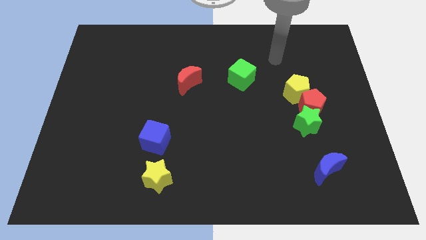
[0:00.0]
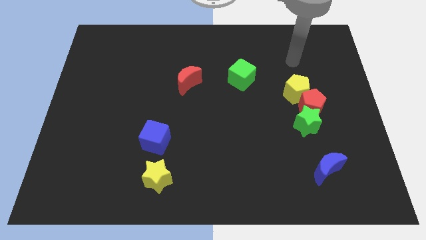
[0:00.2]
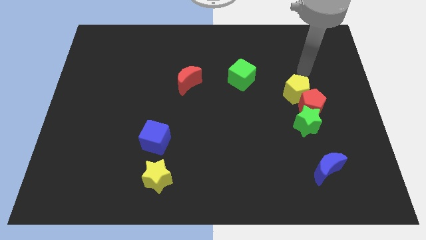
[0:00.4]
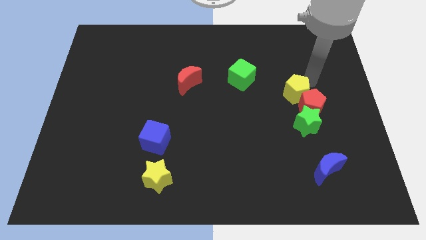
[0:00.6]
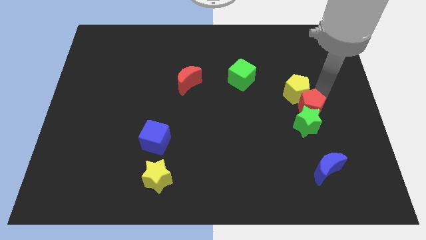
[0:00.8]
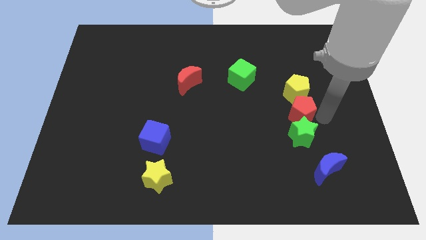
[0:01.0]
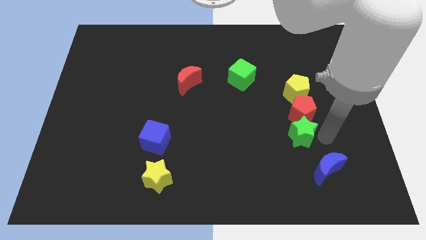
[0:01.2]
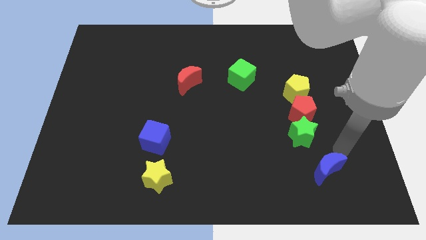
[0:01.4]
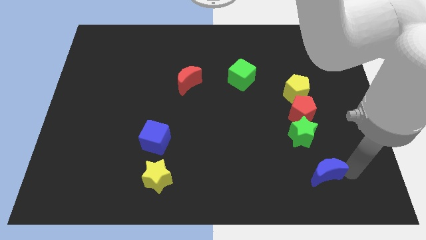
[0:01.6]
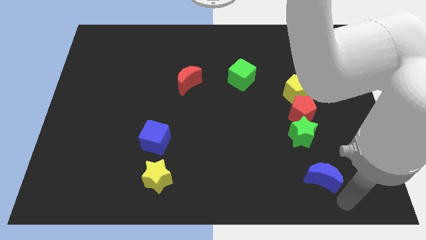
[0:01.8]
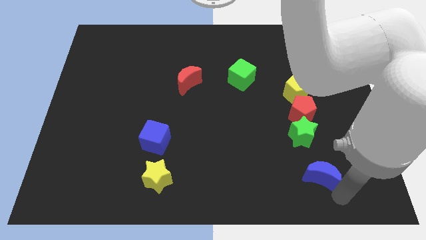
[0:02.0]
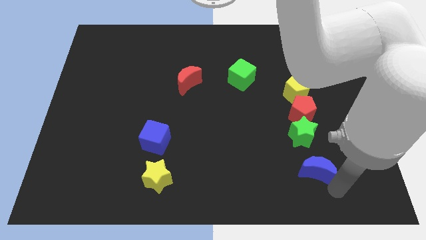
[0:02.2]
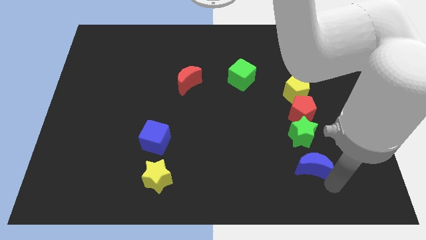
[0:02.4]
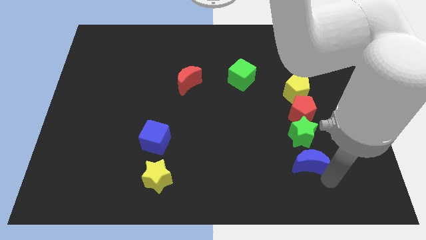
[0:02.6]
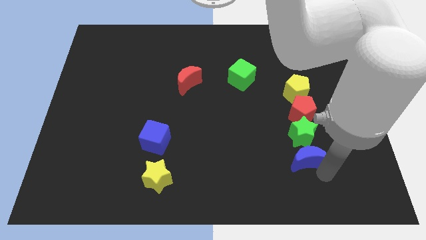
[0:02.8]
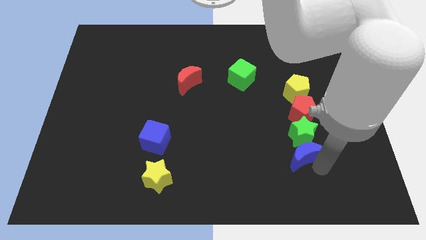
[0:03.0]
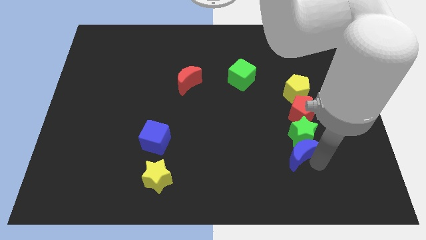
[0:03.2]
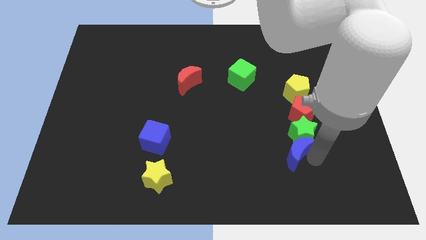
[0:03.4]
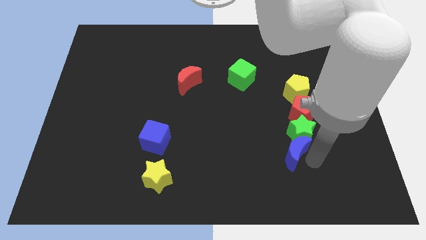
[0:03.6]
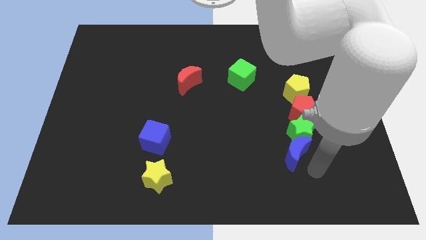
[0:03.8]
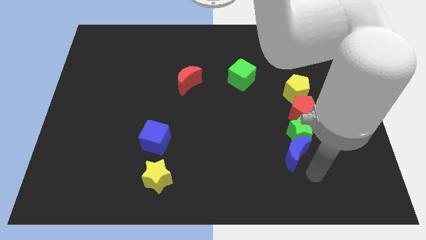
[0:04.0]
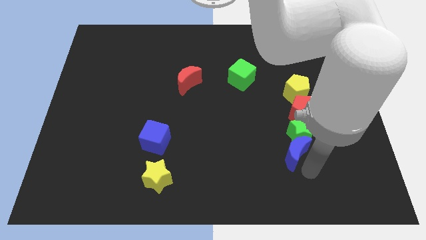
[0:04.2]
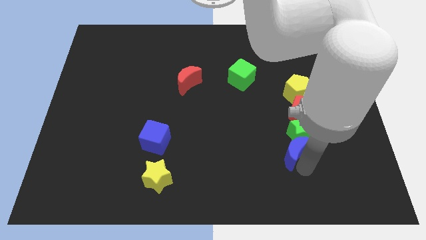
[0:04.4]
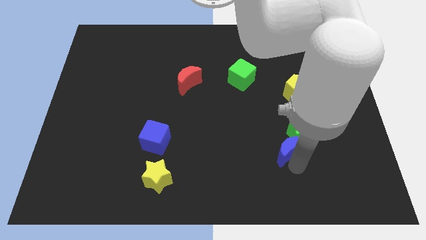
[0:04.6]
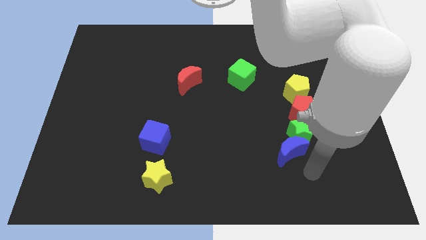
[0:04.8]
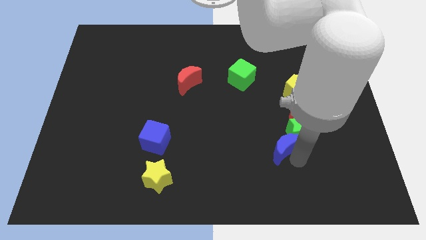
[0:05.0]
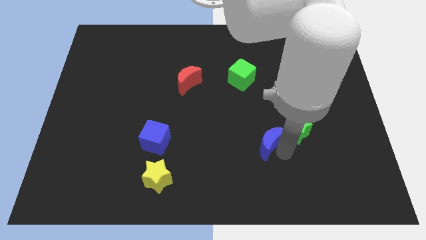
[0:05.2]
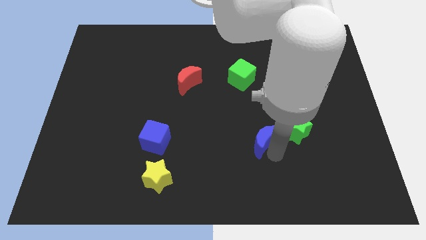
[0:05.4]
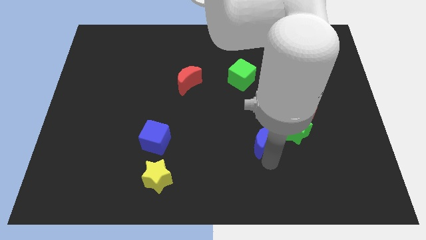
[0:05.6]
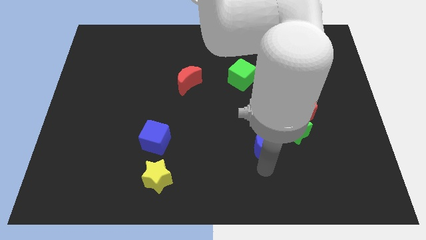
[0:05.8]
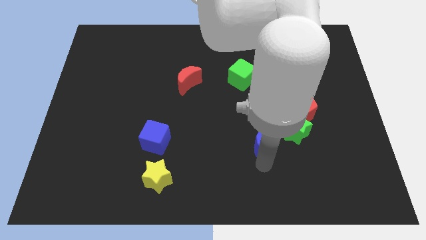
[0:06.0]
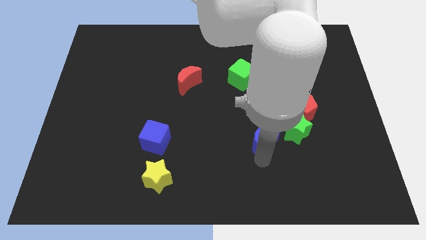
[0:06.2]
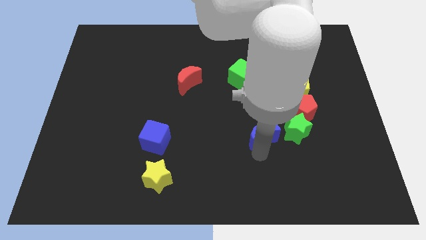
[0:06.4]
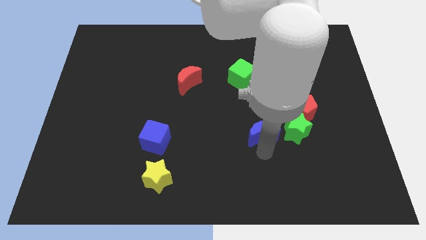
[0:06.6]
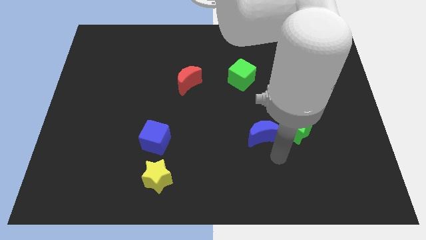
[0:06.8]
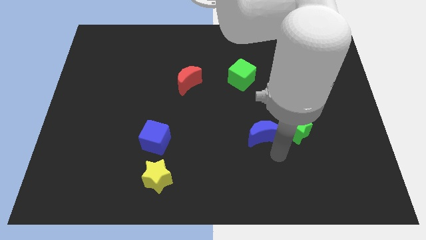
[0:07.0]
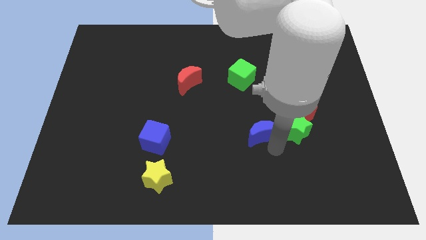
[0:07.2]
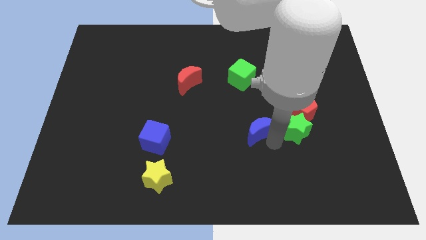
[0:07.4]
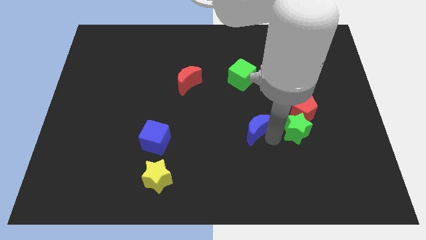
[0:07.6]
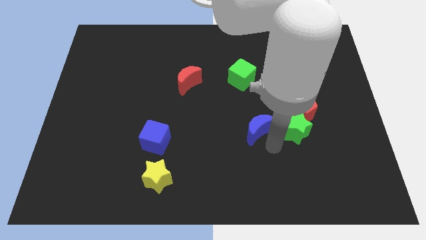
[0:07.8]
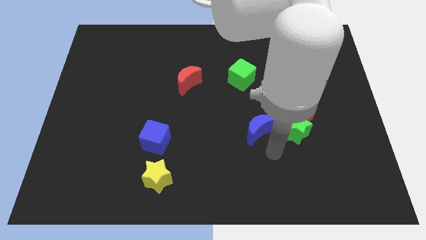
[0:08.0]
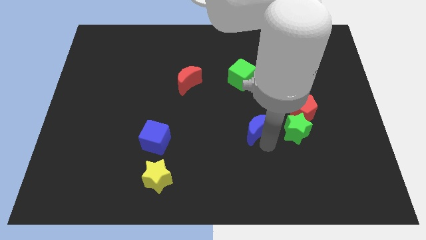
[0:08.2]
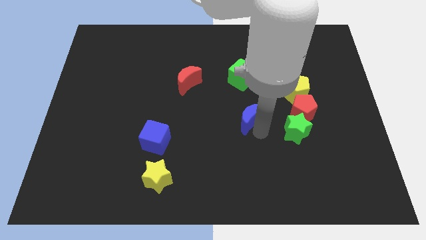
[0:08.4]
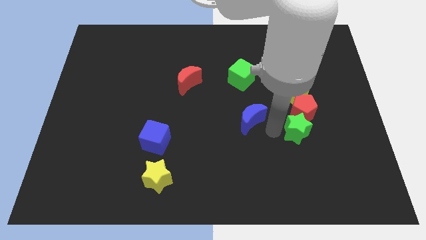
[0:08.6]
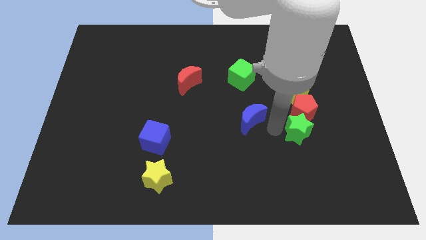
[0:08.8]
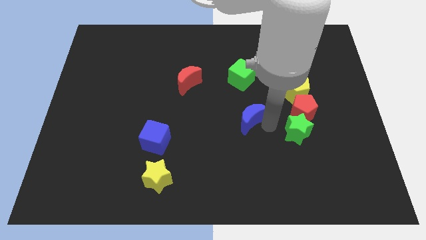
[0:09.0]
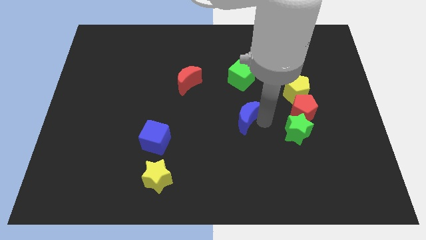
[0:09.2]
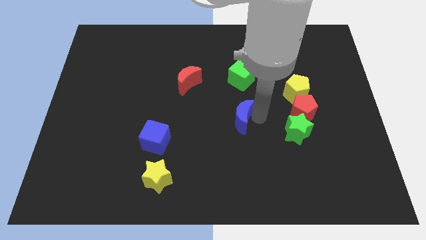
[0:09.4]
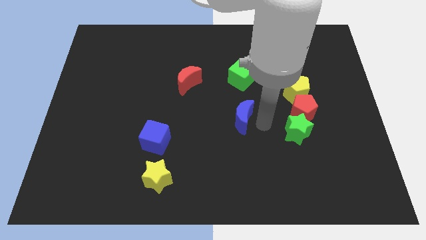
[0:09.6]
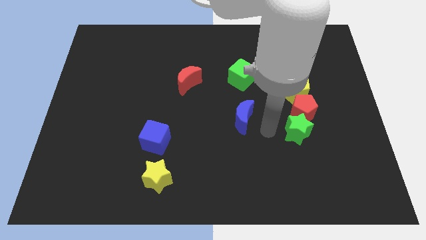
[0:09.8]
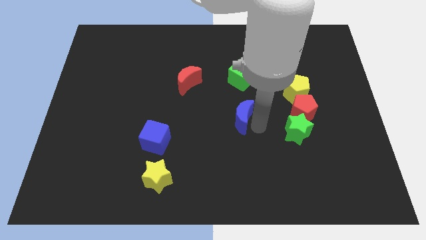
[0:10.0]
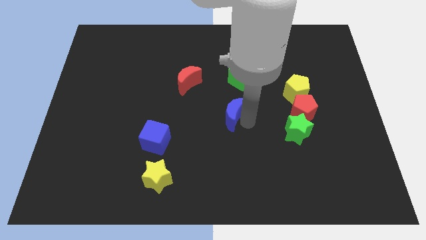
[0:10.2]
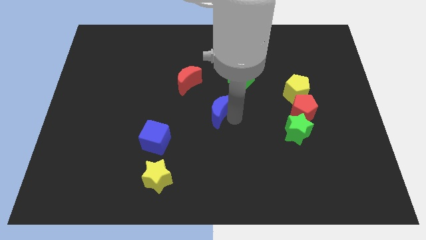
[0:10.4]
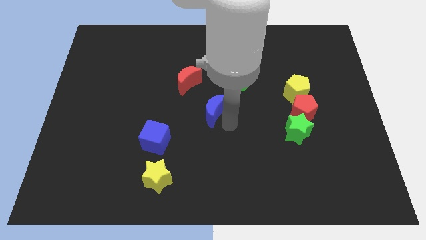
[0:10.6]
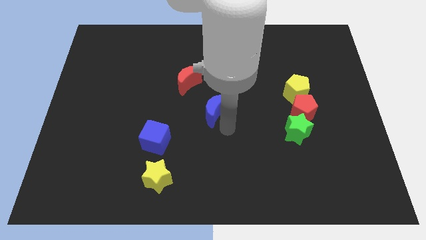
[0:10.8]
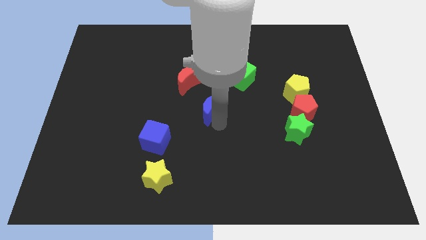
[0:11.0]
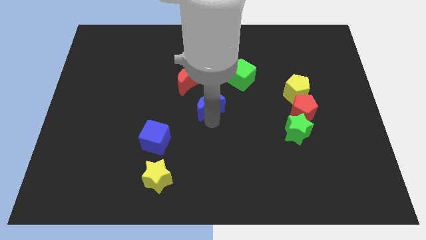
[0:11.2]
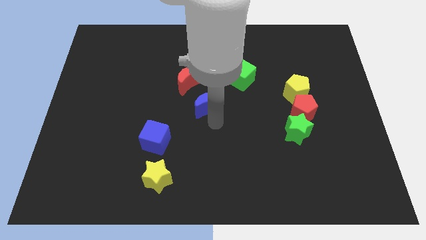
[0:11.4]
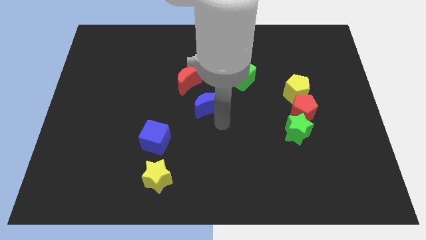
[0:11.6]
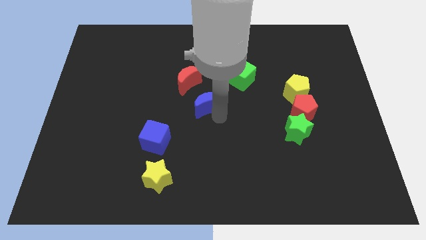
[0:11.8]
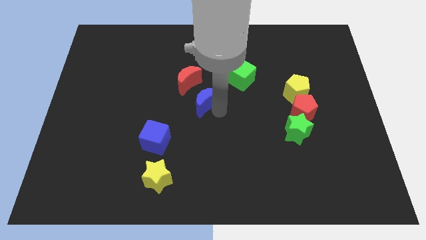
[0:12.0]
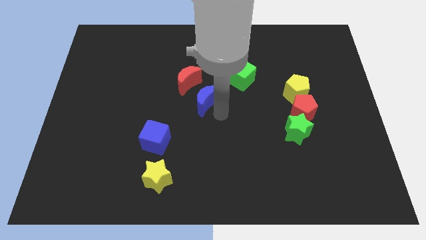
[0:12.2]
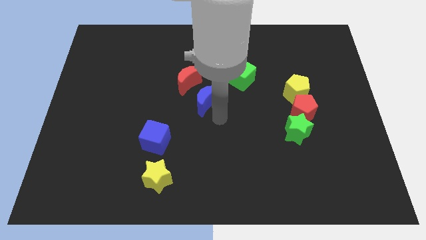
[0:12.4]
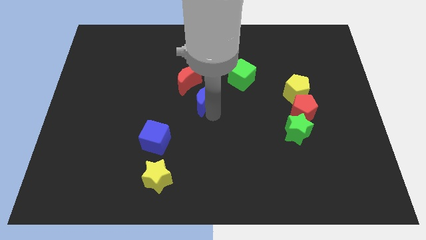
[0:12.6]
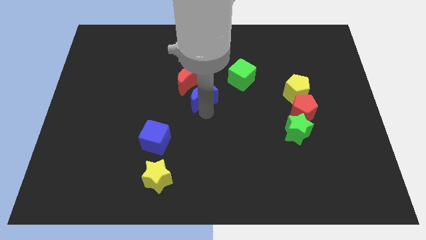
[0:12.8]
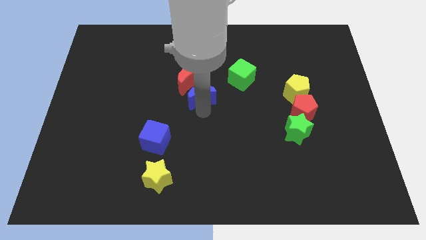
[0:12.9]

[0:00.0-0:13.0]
push the blue moon close to the red moon
